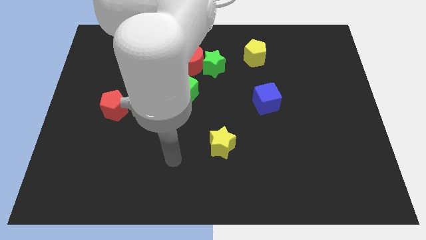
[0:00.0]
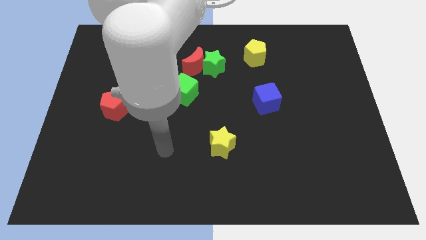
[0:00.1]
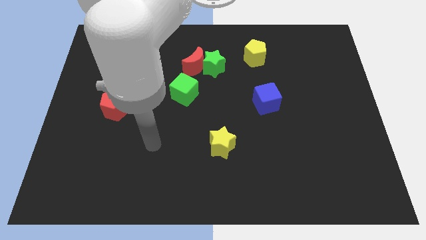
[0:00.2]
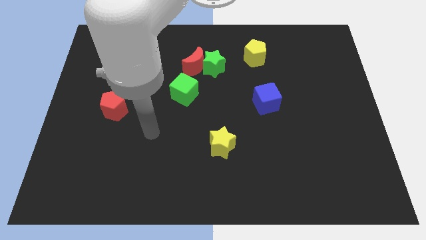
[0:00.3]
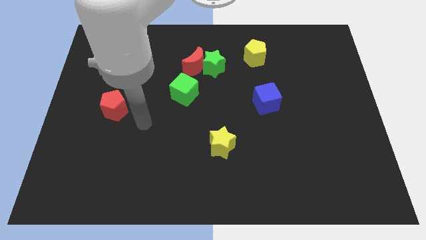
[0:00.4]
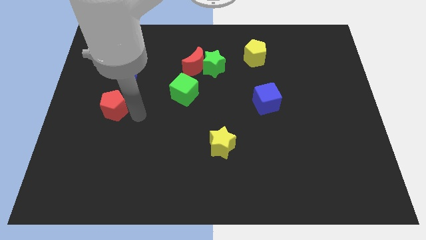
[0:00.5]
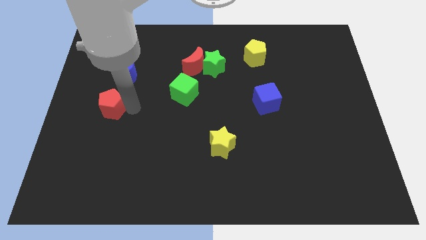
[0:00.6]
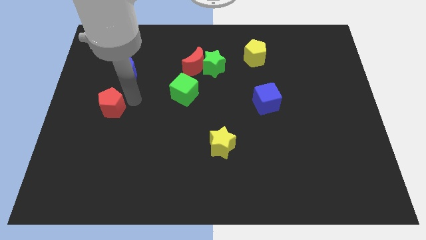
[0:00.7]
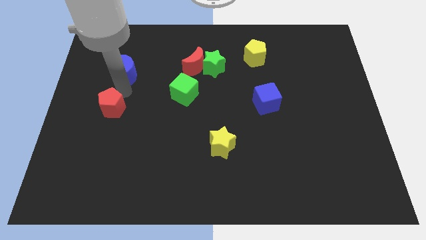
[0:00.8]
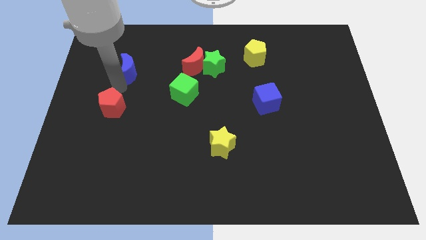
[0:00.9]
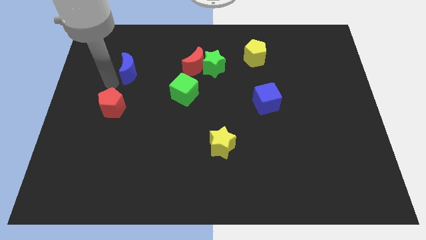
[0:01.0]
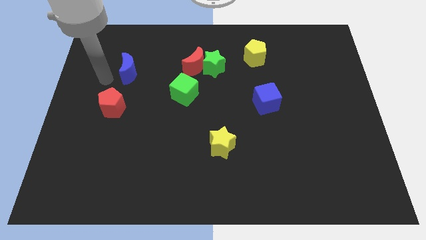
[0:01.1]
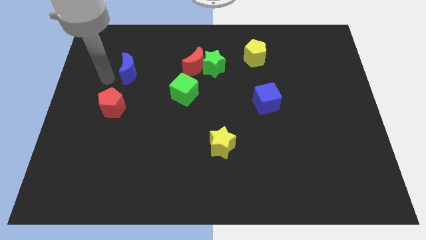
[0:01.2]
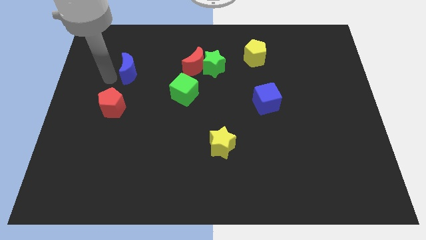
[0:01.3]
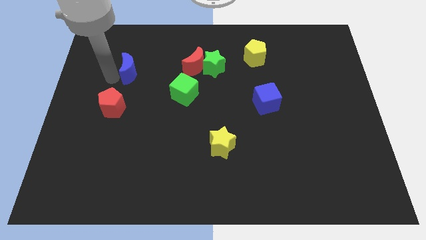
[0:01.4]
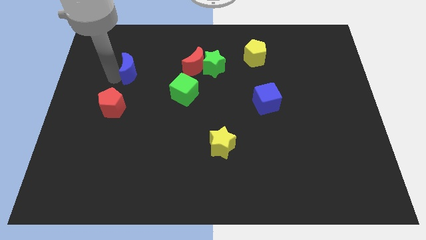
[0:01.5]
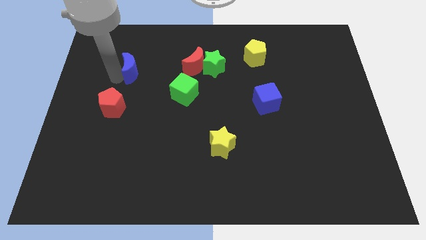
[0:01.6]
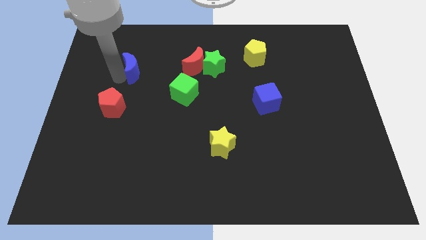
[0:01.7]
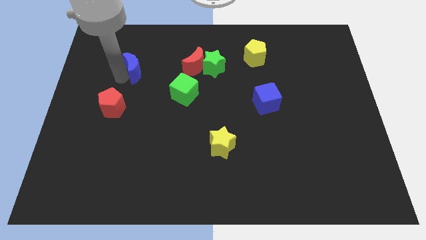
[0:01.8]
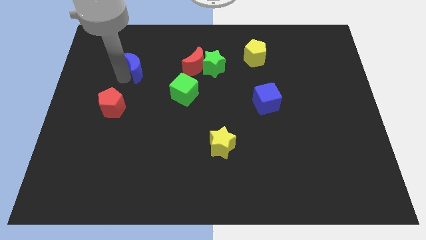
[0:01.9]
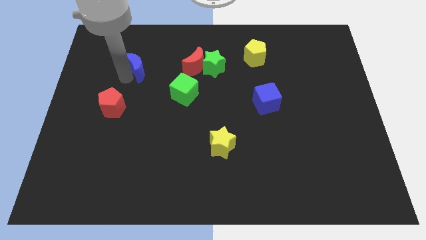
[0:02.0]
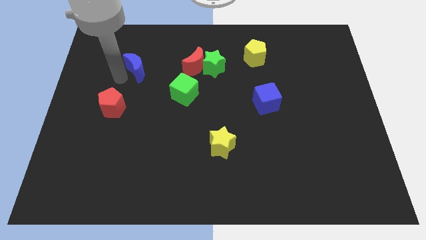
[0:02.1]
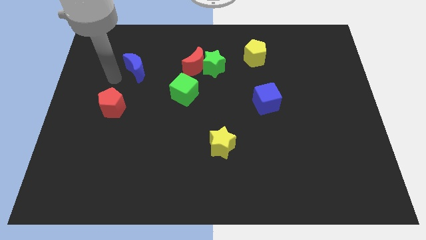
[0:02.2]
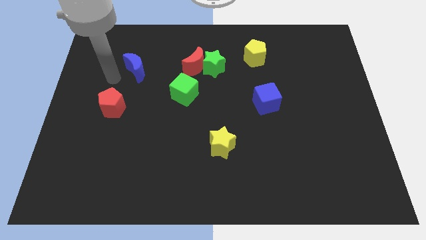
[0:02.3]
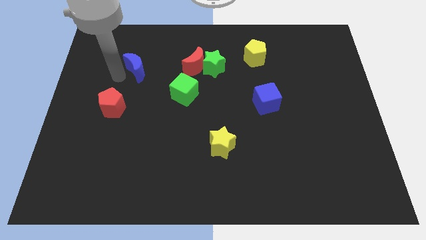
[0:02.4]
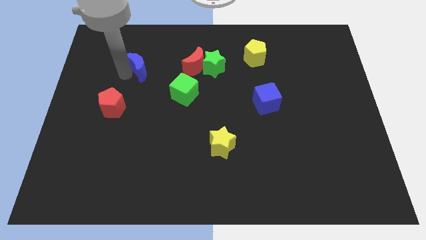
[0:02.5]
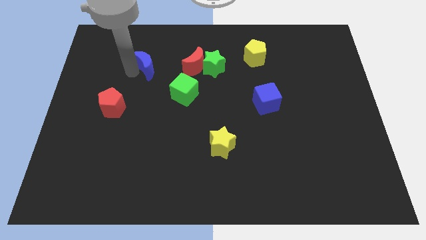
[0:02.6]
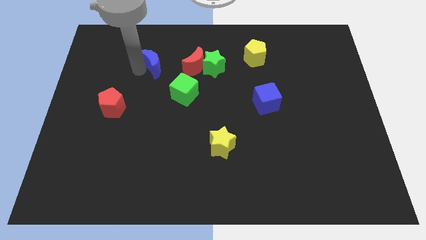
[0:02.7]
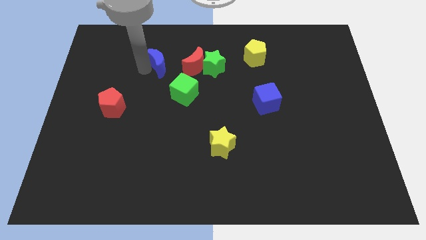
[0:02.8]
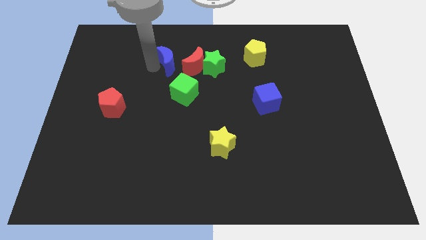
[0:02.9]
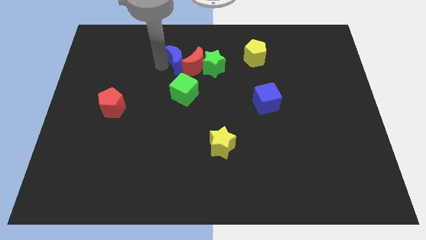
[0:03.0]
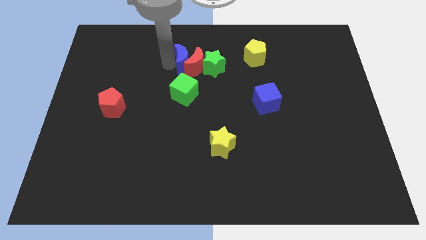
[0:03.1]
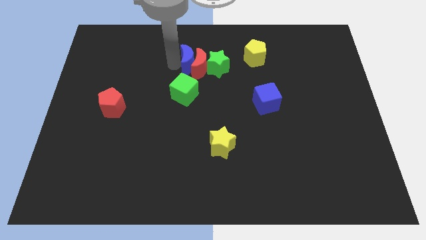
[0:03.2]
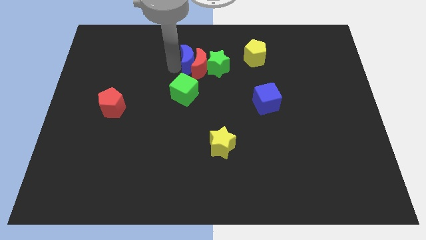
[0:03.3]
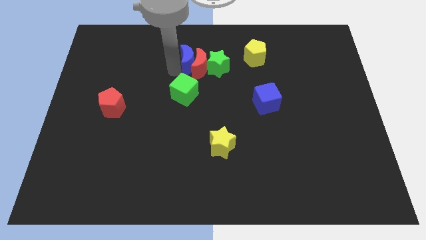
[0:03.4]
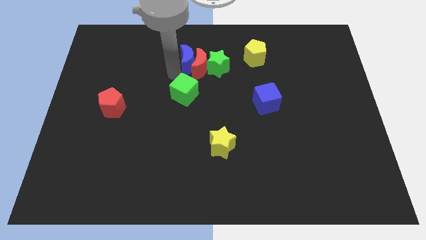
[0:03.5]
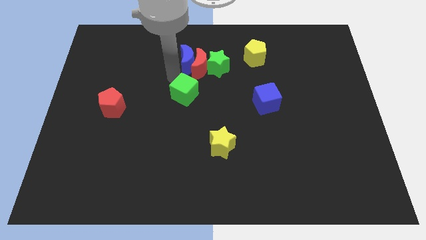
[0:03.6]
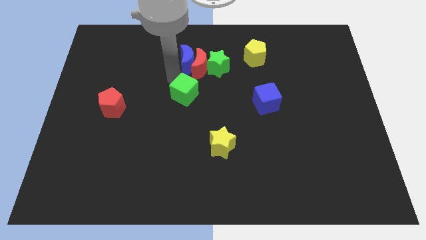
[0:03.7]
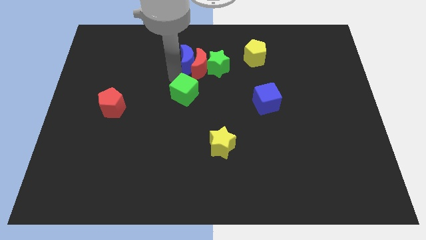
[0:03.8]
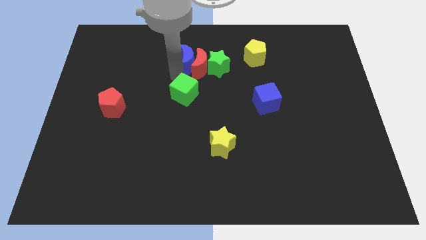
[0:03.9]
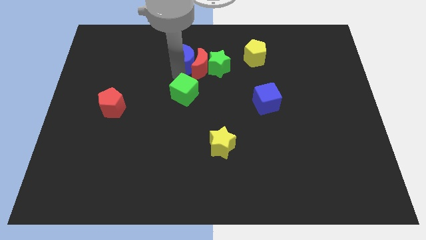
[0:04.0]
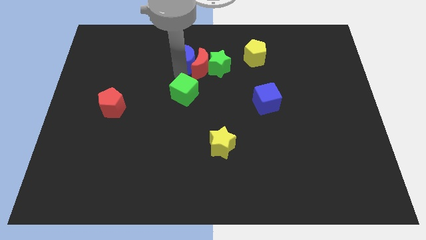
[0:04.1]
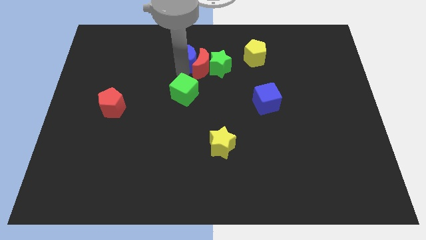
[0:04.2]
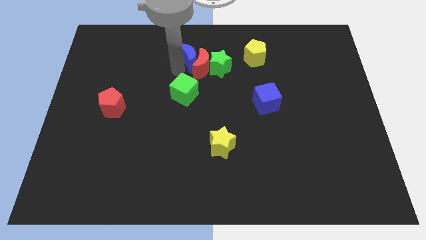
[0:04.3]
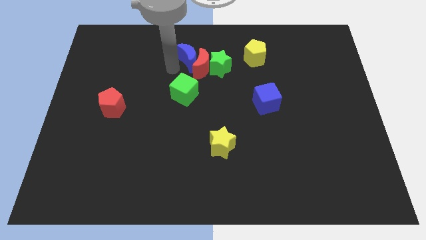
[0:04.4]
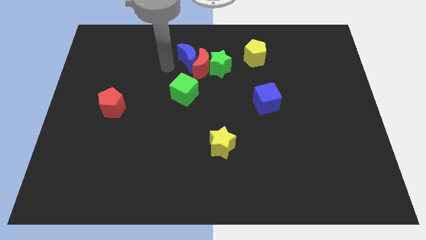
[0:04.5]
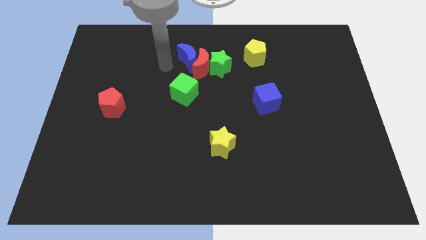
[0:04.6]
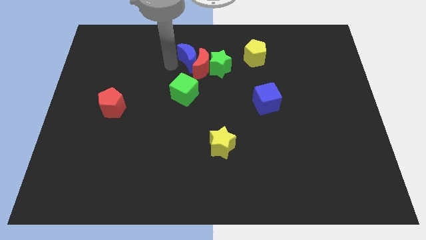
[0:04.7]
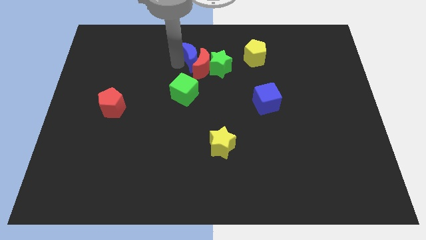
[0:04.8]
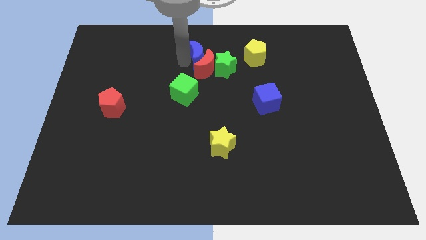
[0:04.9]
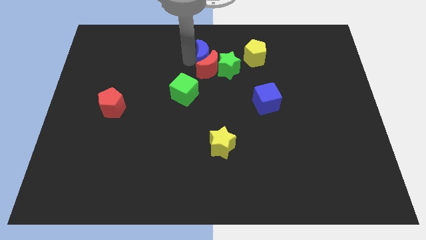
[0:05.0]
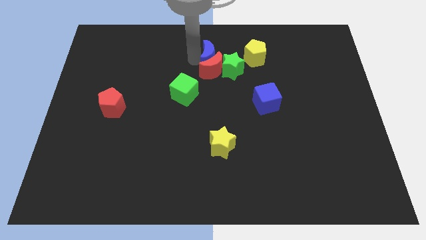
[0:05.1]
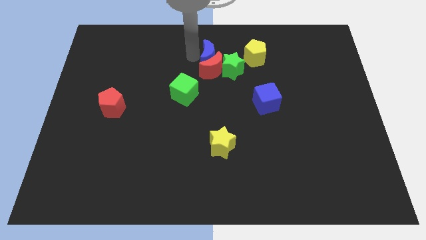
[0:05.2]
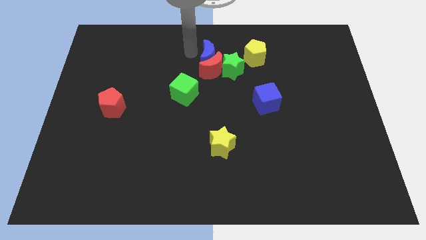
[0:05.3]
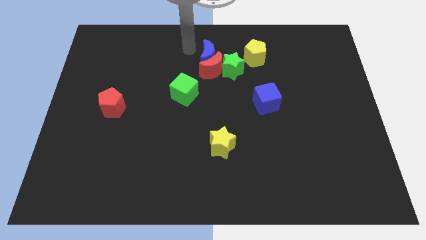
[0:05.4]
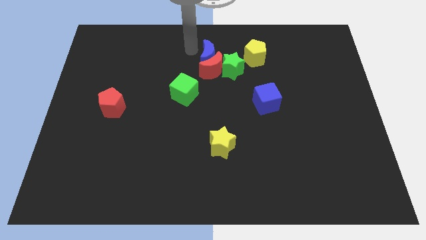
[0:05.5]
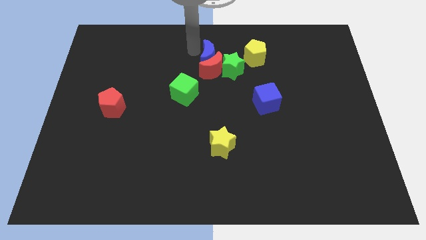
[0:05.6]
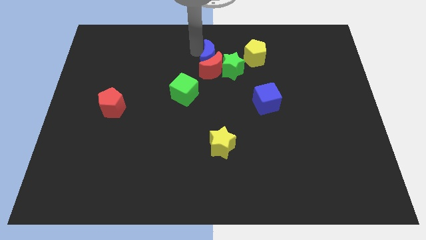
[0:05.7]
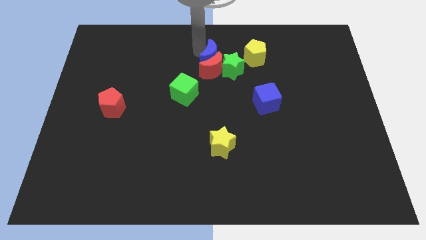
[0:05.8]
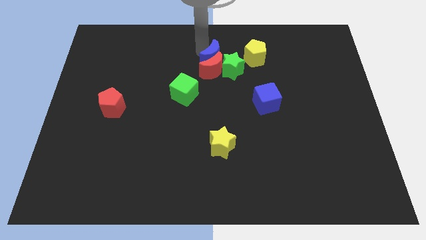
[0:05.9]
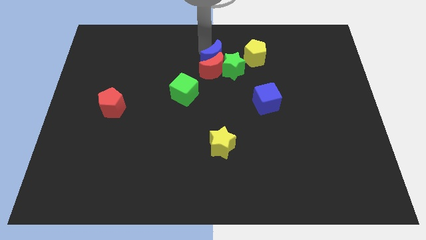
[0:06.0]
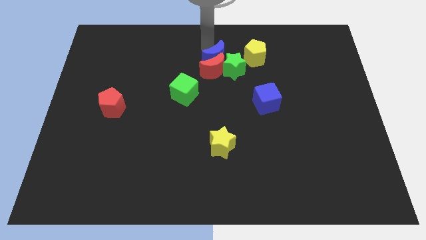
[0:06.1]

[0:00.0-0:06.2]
put the blue moon next to the green star
